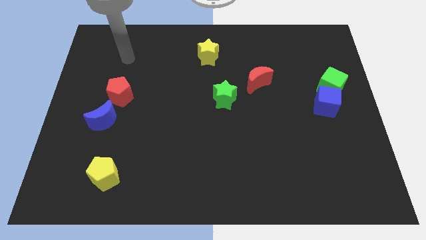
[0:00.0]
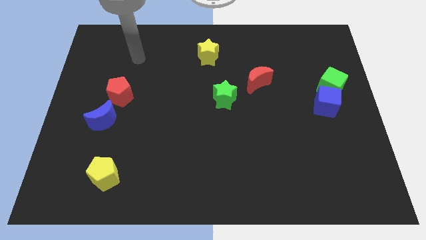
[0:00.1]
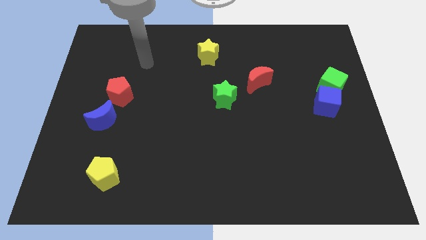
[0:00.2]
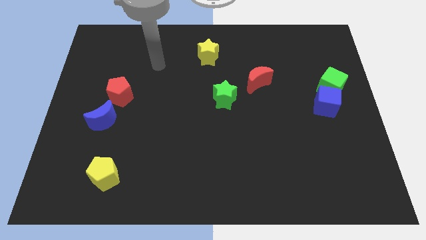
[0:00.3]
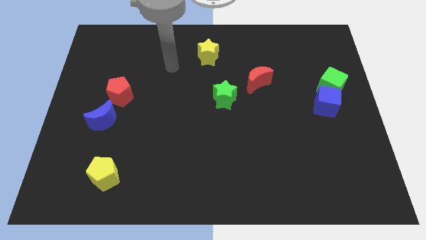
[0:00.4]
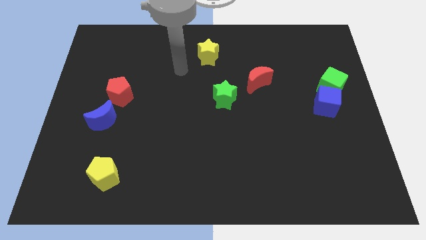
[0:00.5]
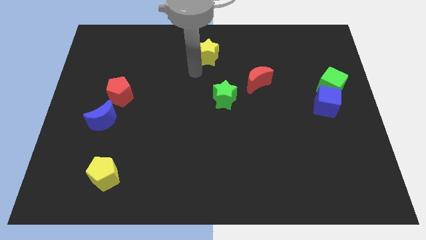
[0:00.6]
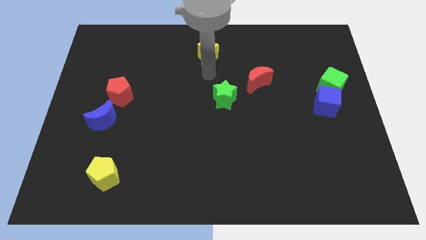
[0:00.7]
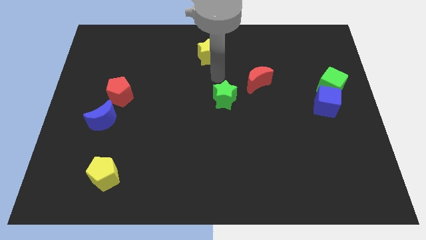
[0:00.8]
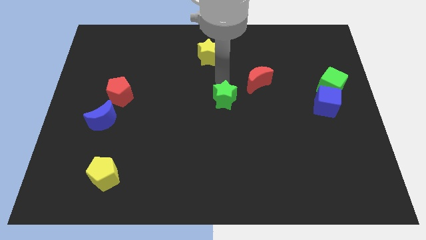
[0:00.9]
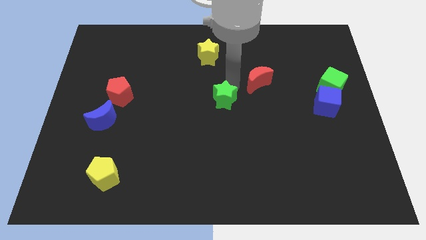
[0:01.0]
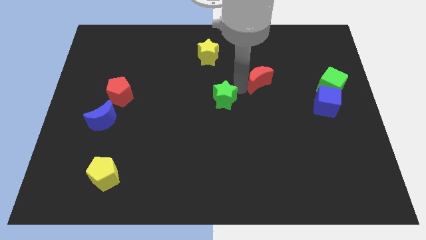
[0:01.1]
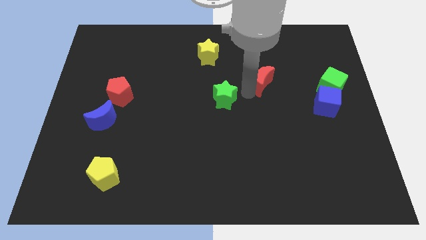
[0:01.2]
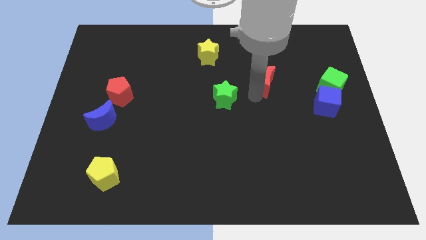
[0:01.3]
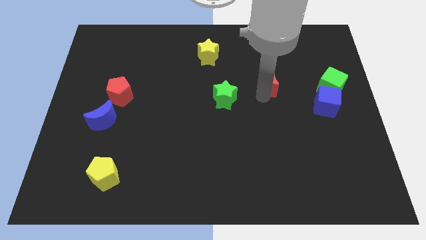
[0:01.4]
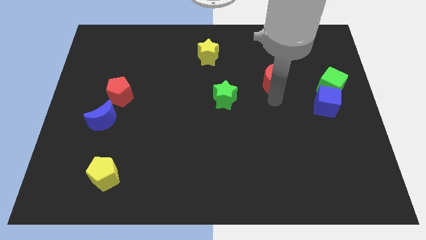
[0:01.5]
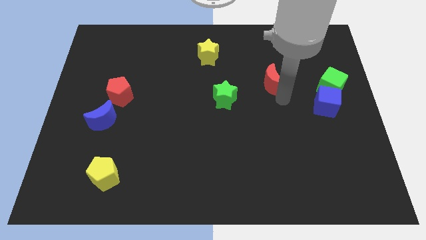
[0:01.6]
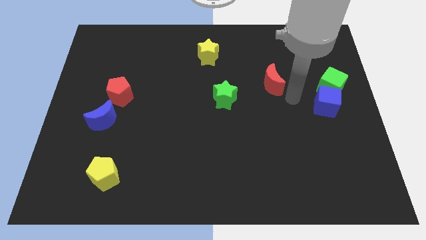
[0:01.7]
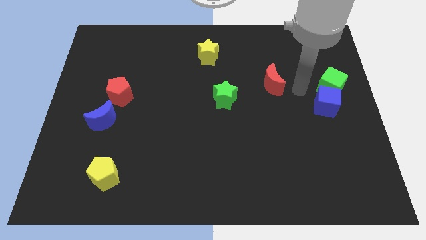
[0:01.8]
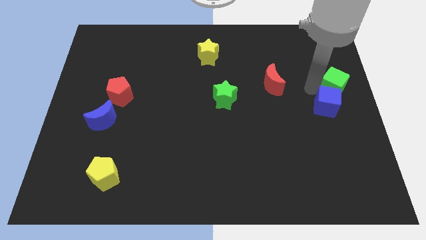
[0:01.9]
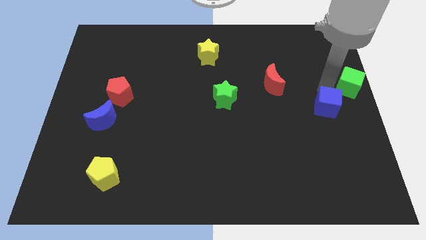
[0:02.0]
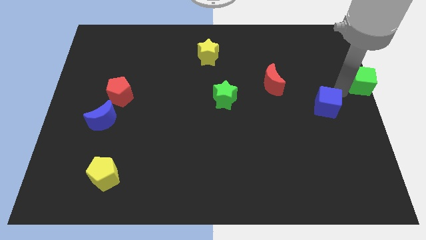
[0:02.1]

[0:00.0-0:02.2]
separate the blue cube from the green cube

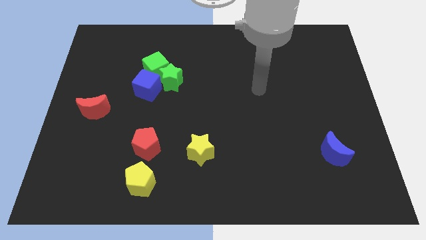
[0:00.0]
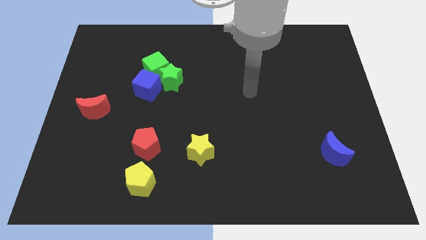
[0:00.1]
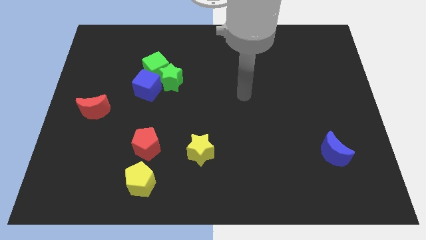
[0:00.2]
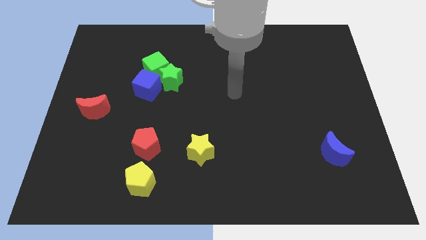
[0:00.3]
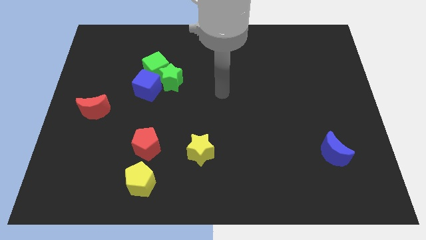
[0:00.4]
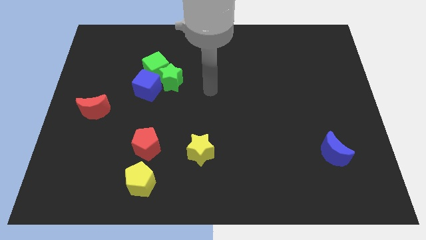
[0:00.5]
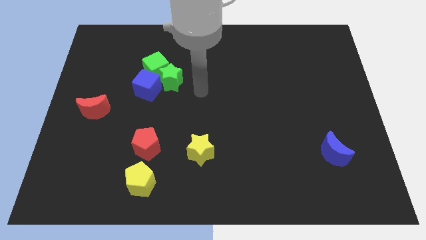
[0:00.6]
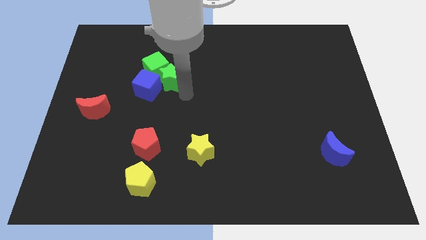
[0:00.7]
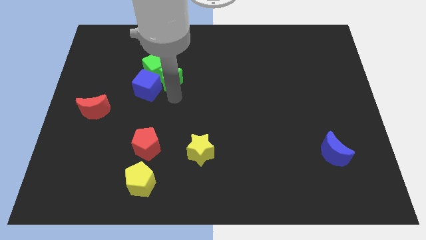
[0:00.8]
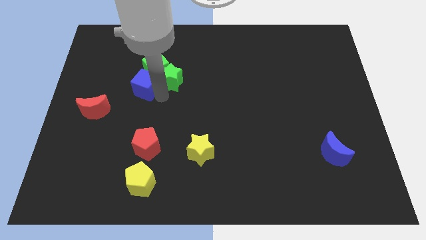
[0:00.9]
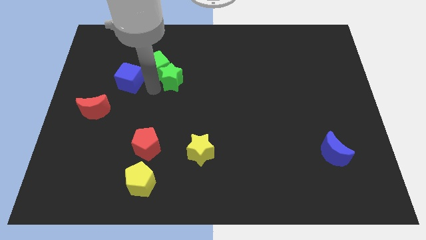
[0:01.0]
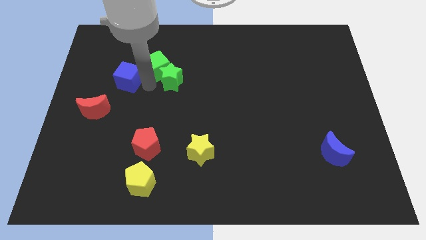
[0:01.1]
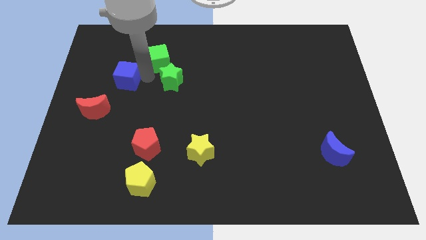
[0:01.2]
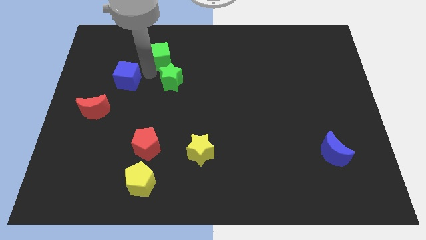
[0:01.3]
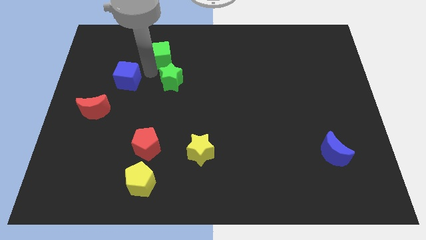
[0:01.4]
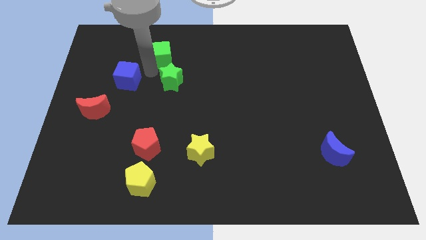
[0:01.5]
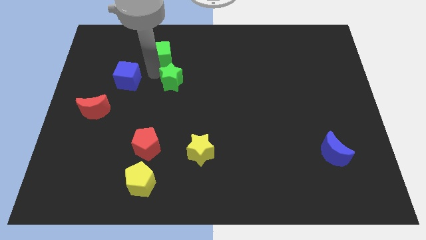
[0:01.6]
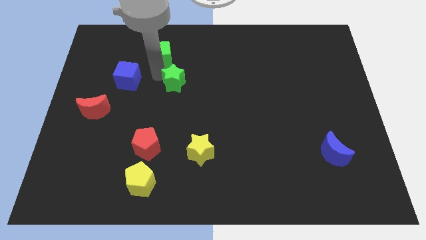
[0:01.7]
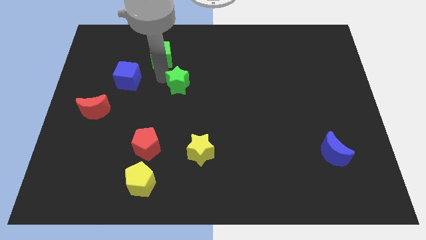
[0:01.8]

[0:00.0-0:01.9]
separate the green star from the green cube and blue cube

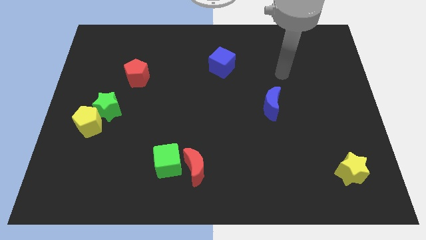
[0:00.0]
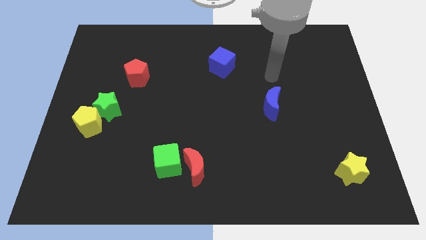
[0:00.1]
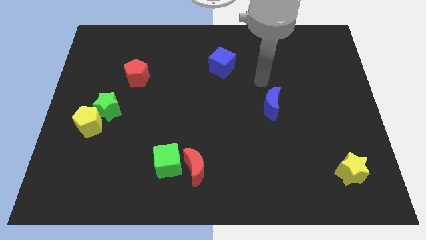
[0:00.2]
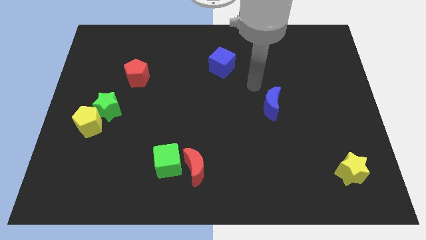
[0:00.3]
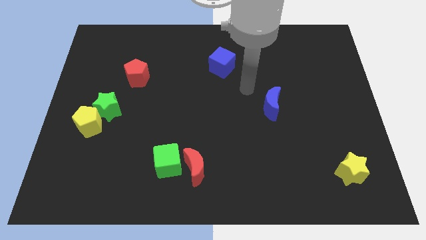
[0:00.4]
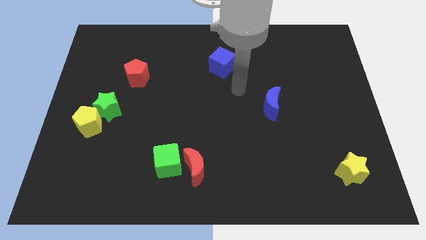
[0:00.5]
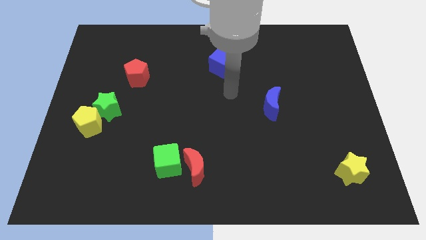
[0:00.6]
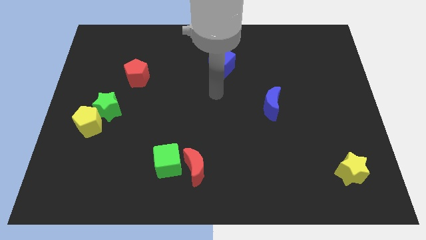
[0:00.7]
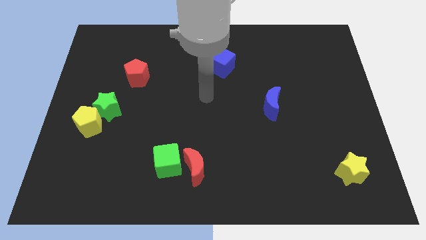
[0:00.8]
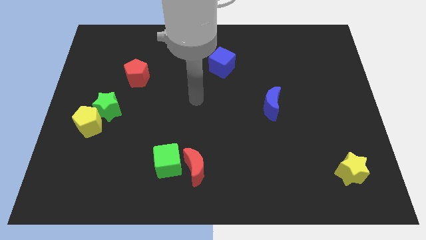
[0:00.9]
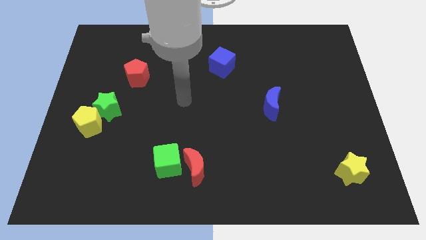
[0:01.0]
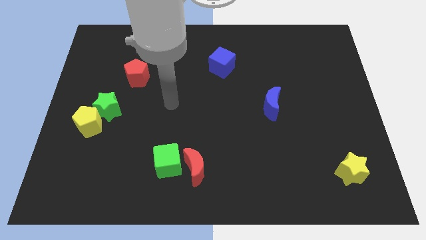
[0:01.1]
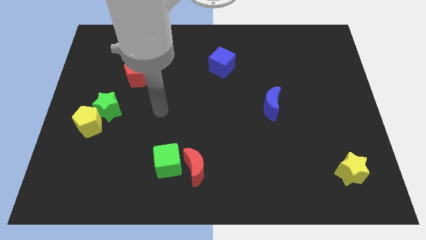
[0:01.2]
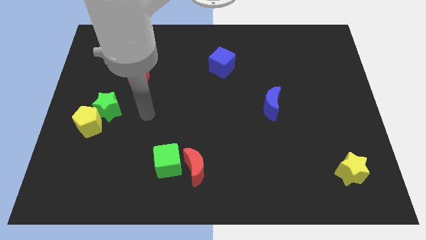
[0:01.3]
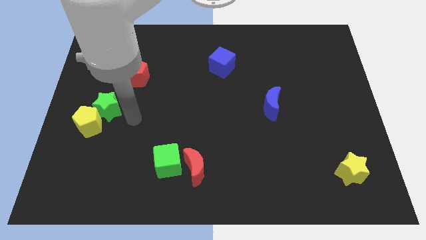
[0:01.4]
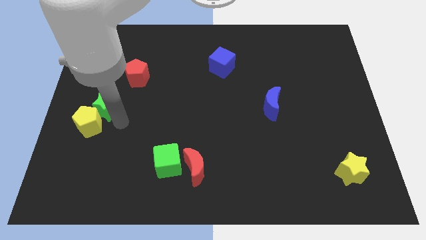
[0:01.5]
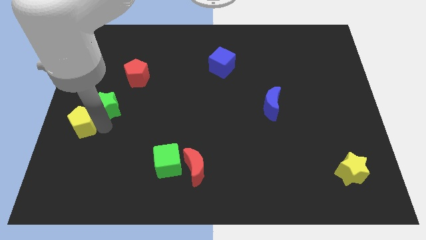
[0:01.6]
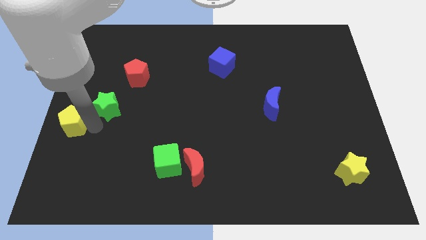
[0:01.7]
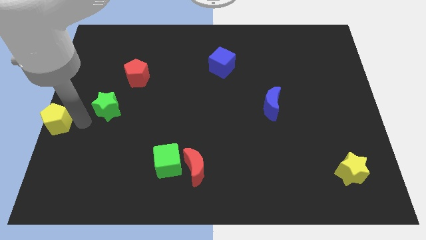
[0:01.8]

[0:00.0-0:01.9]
pull the green star apart from the yellow pentagon

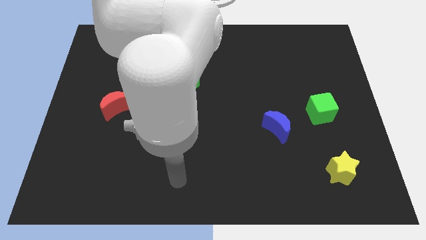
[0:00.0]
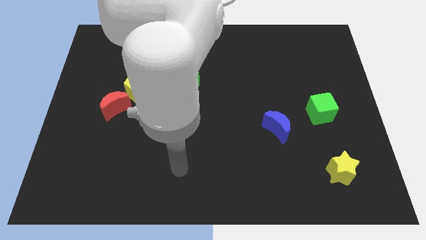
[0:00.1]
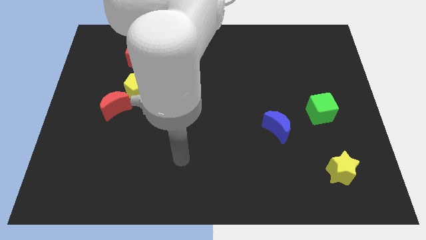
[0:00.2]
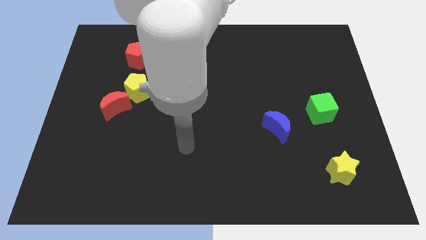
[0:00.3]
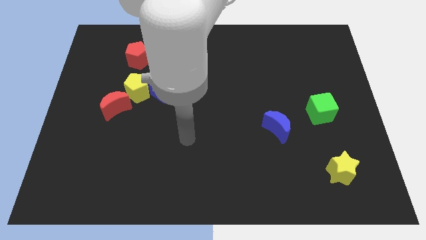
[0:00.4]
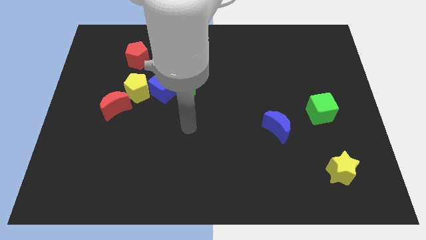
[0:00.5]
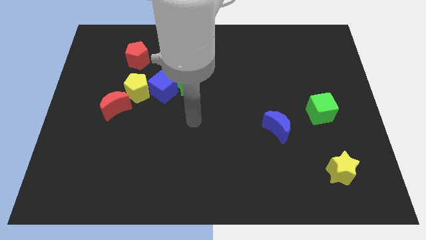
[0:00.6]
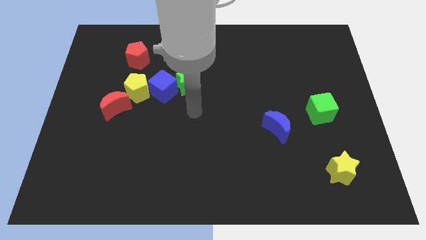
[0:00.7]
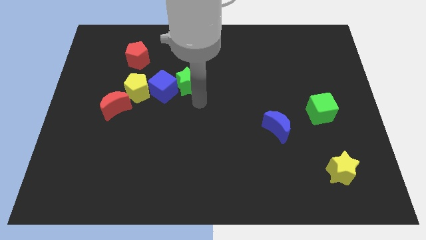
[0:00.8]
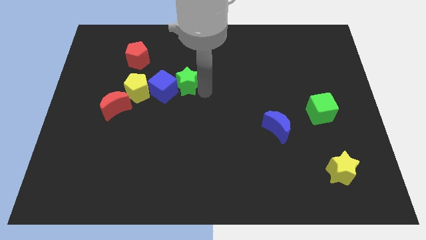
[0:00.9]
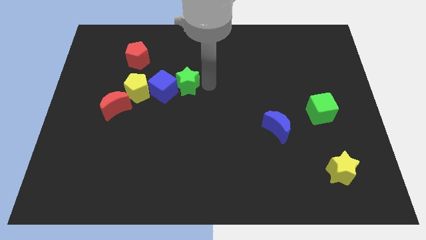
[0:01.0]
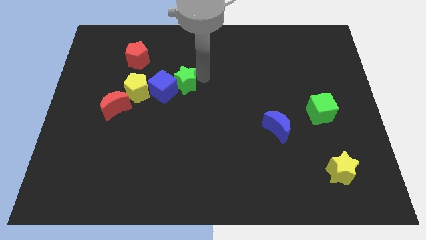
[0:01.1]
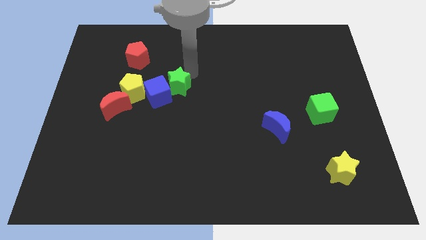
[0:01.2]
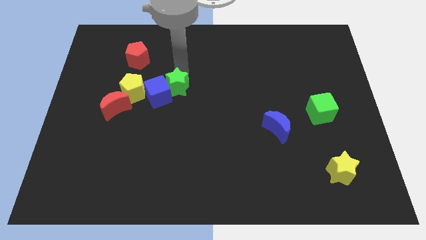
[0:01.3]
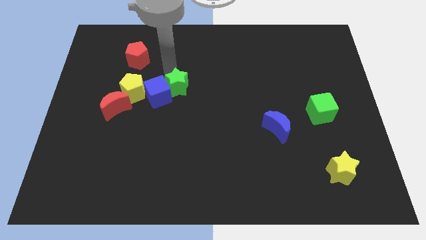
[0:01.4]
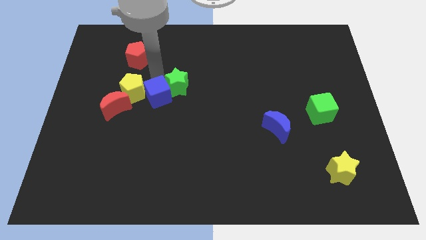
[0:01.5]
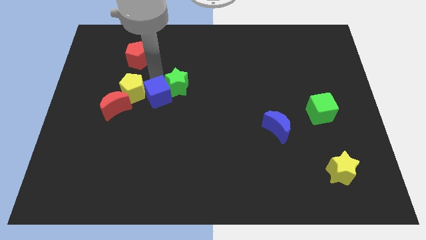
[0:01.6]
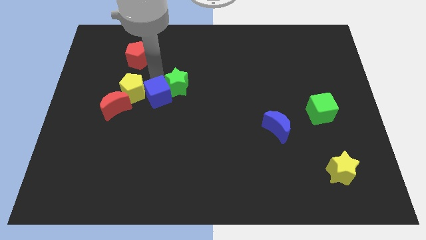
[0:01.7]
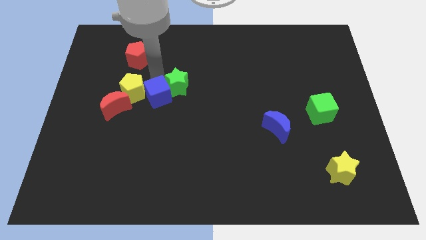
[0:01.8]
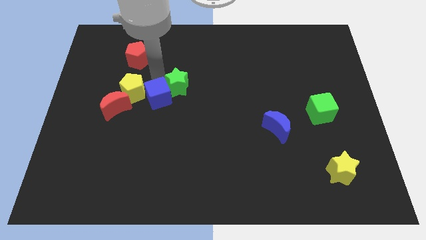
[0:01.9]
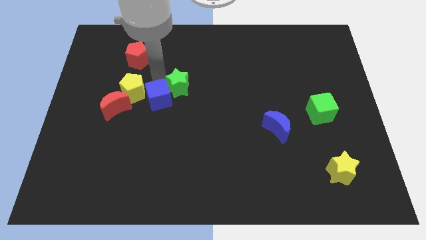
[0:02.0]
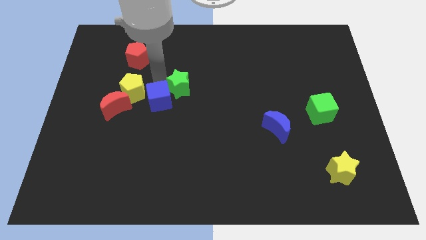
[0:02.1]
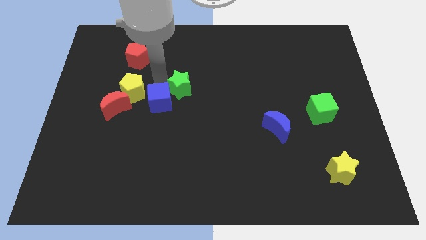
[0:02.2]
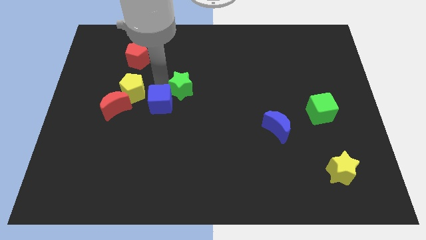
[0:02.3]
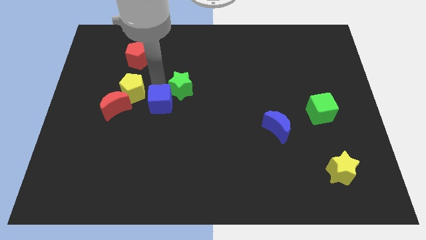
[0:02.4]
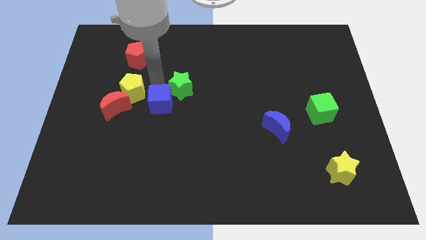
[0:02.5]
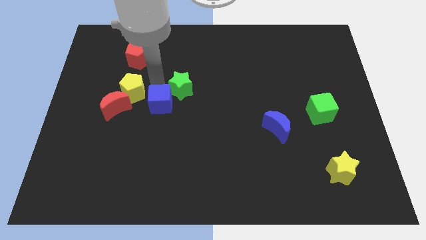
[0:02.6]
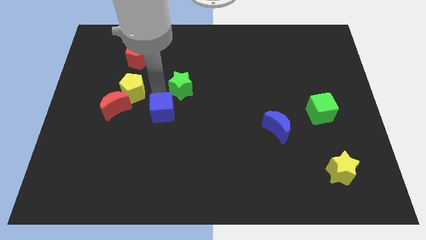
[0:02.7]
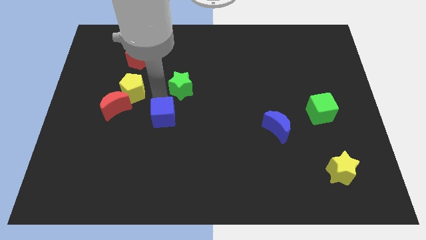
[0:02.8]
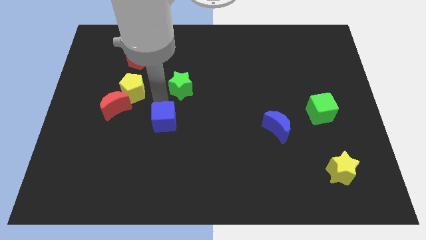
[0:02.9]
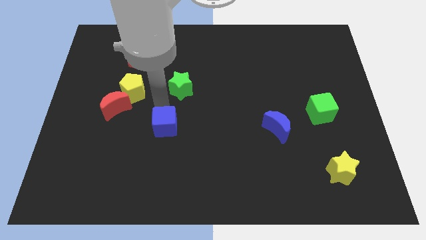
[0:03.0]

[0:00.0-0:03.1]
move the blue cube away from the yellow pentagon and green star

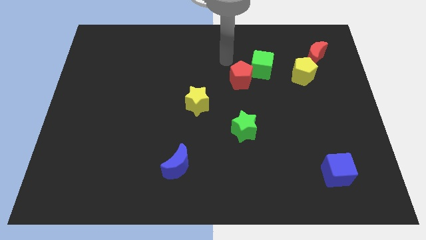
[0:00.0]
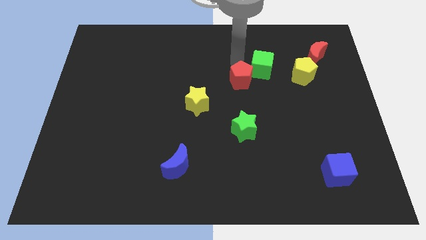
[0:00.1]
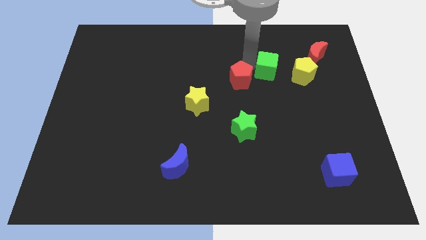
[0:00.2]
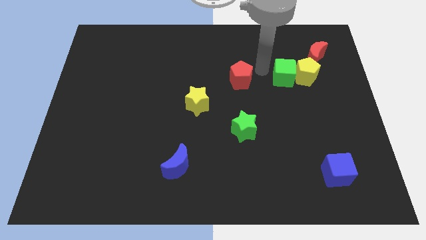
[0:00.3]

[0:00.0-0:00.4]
pull the red pentagon apart from the green cube
